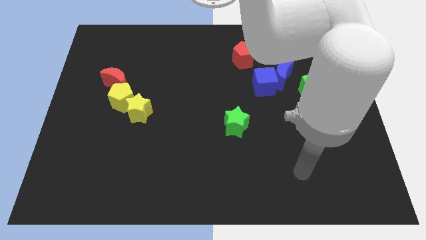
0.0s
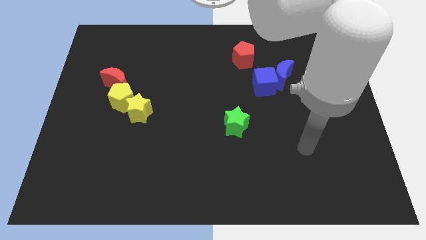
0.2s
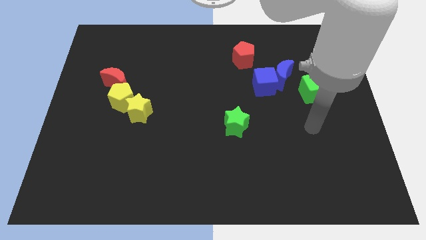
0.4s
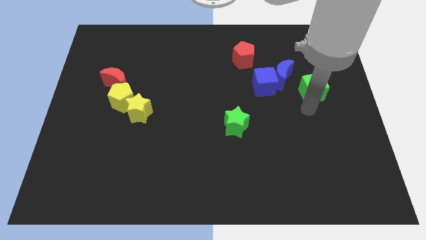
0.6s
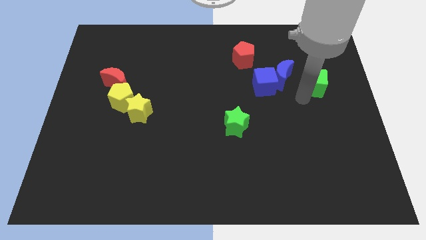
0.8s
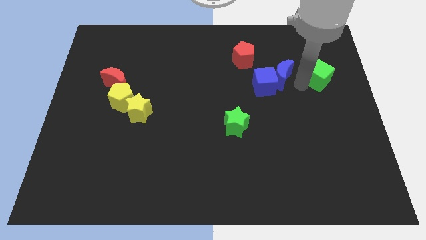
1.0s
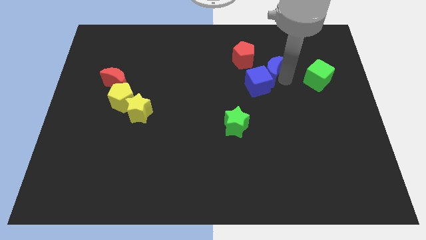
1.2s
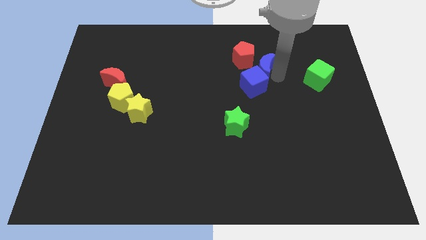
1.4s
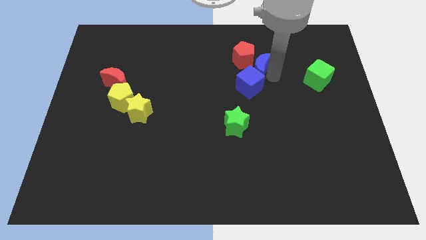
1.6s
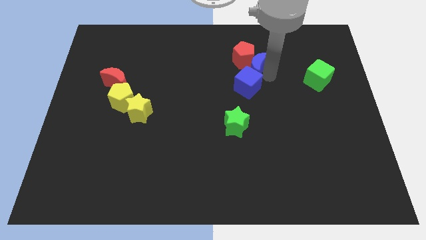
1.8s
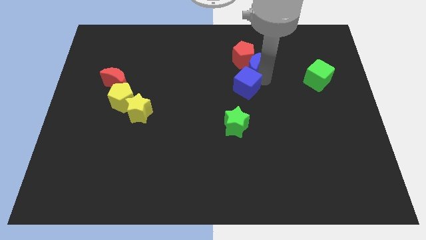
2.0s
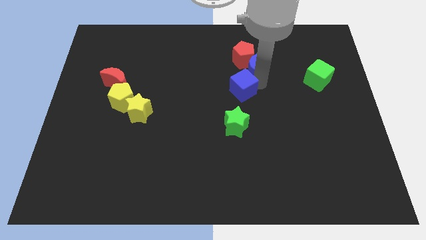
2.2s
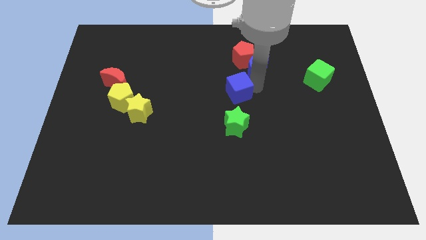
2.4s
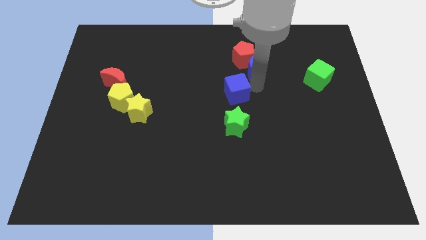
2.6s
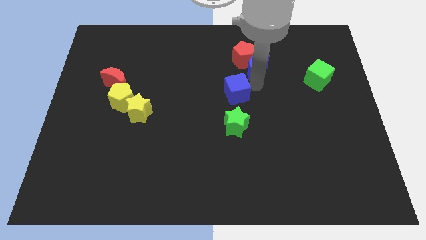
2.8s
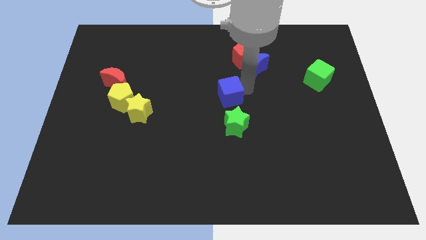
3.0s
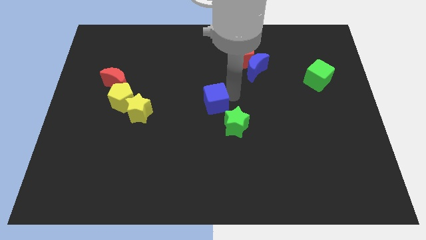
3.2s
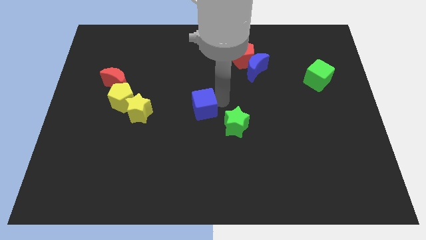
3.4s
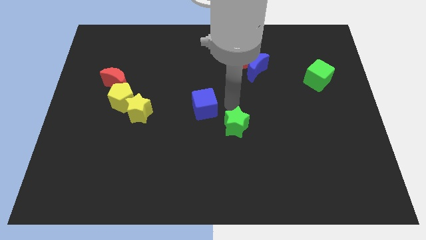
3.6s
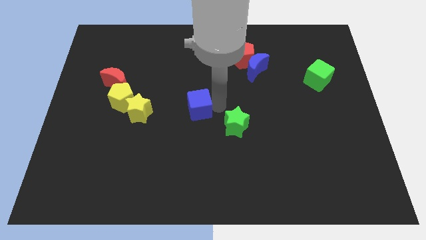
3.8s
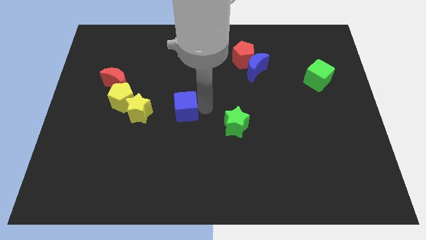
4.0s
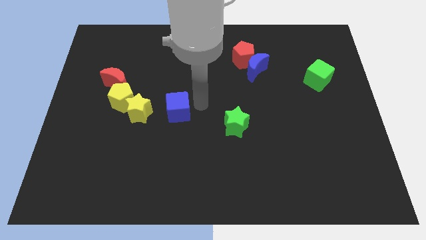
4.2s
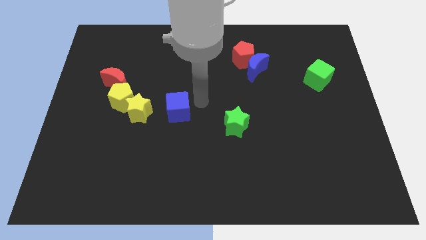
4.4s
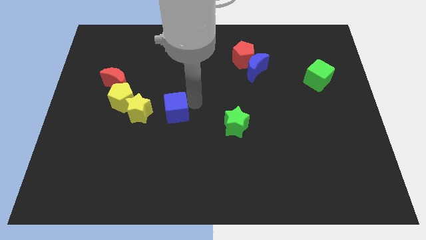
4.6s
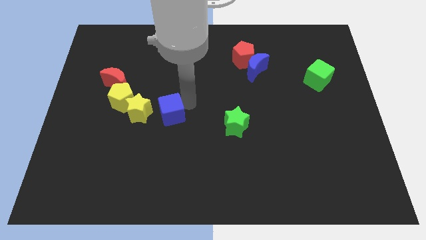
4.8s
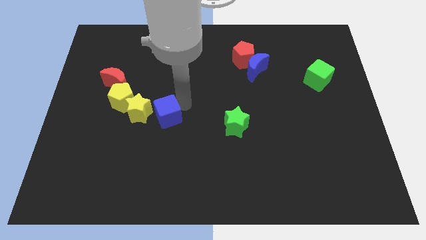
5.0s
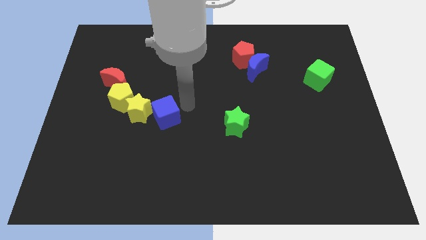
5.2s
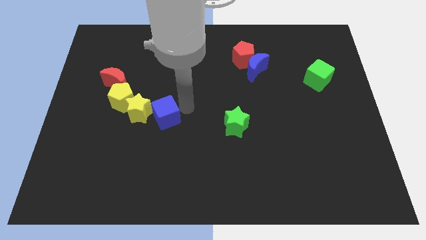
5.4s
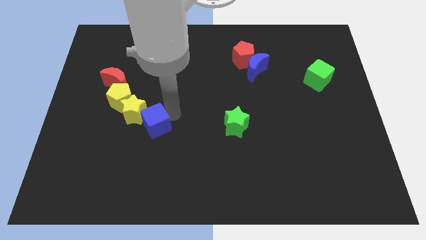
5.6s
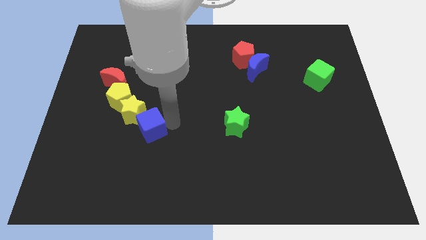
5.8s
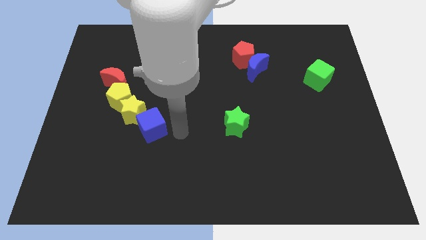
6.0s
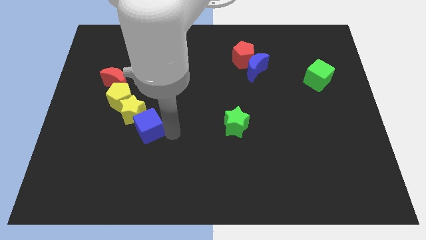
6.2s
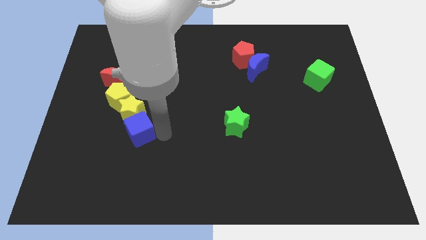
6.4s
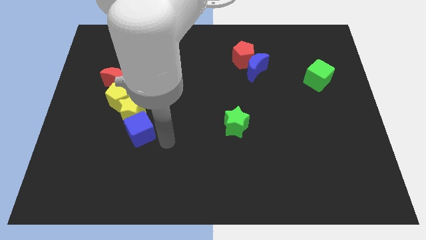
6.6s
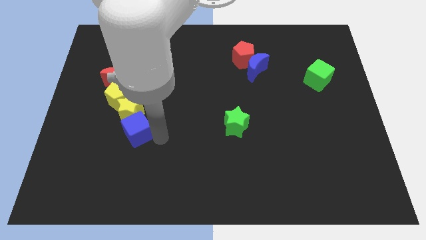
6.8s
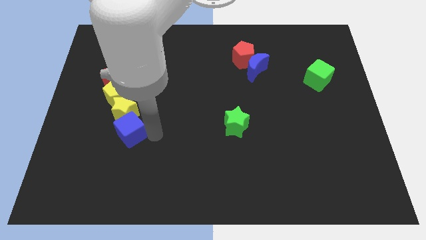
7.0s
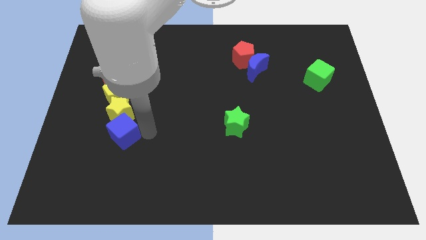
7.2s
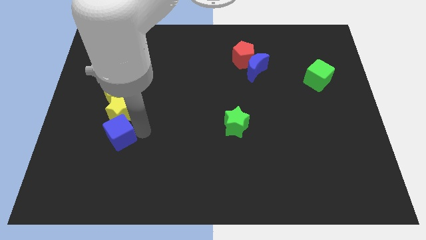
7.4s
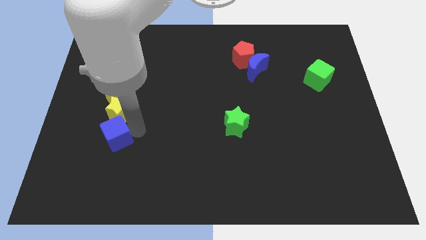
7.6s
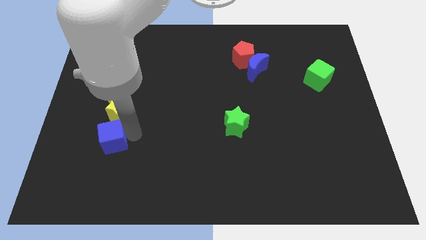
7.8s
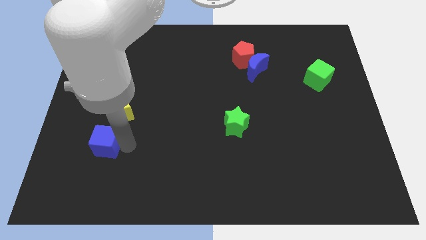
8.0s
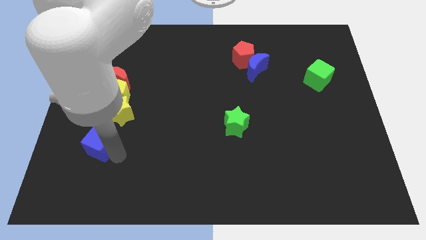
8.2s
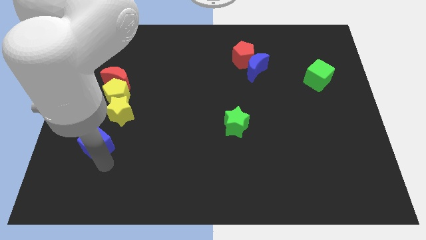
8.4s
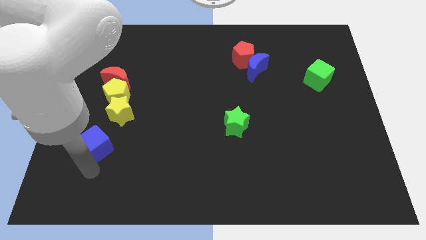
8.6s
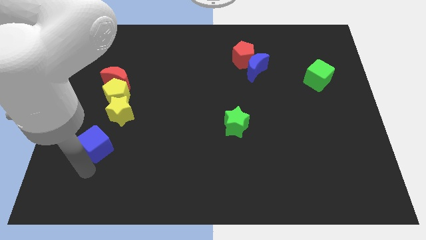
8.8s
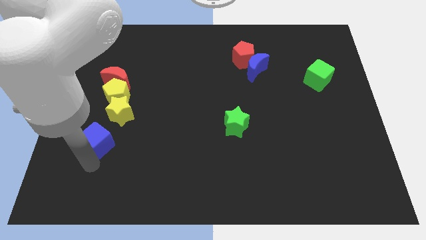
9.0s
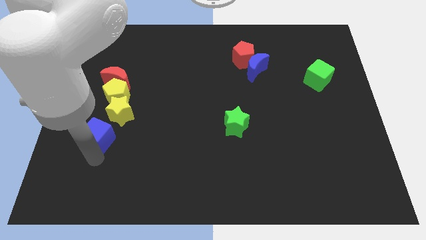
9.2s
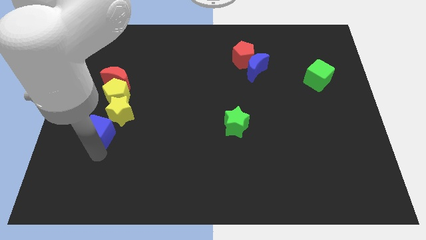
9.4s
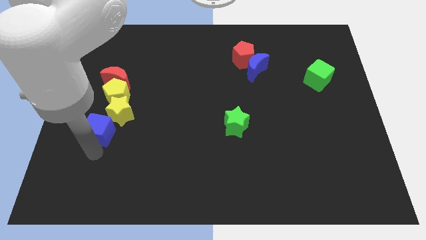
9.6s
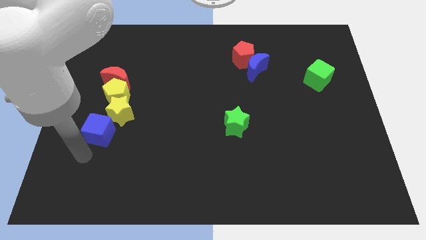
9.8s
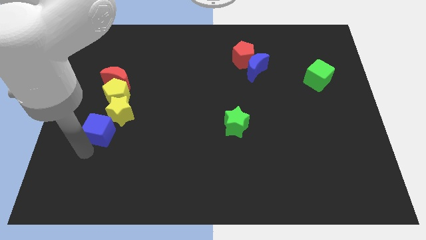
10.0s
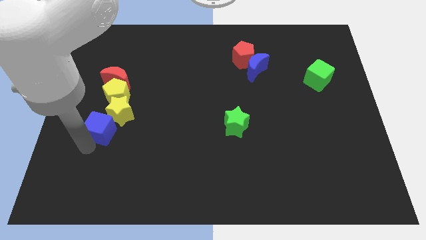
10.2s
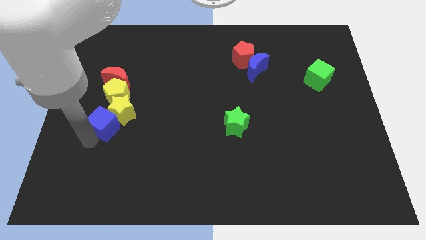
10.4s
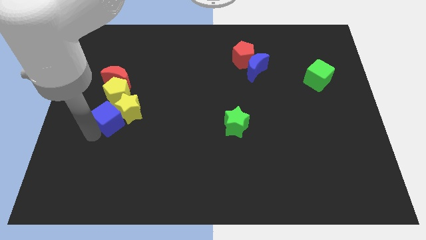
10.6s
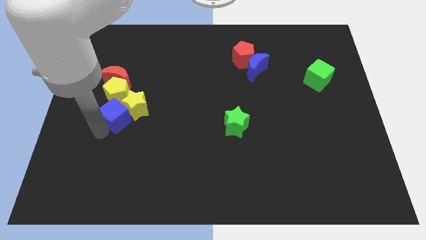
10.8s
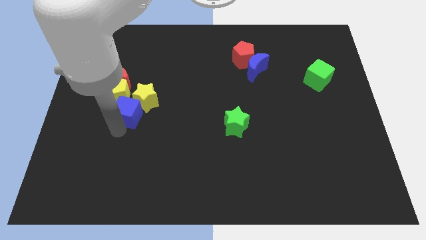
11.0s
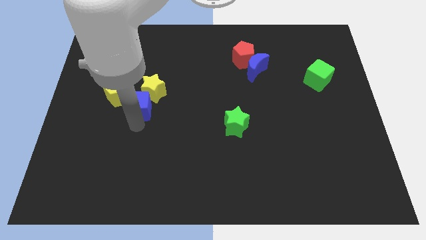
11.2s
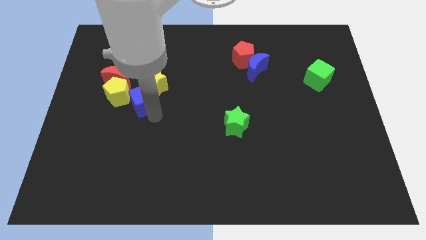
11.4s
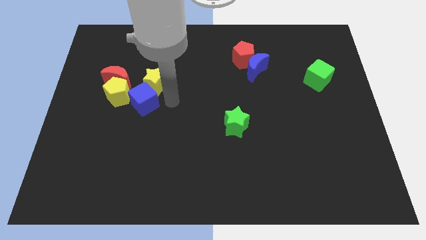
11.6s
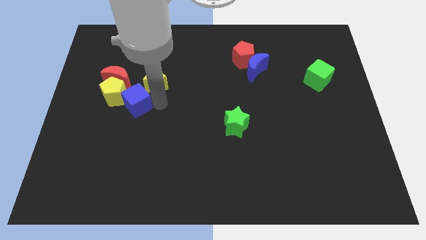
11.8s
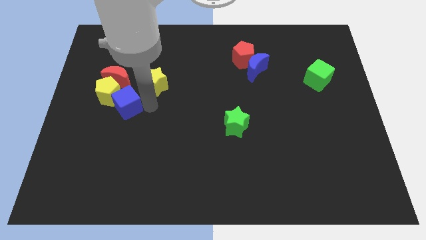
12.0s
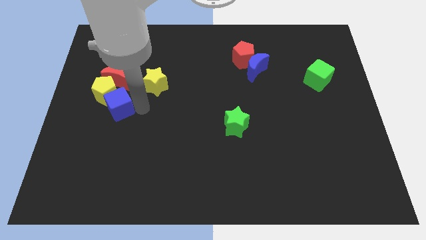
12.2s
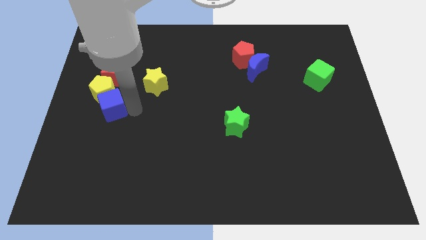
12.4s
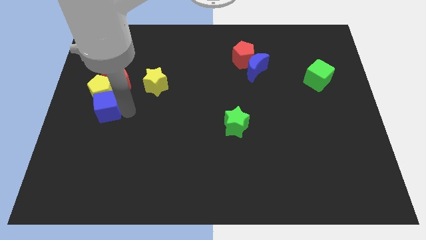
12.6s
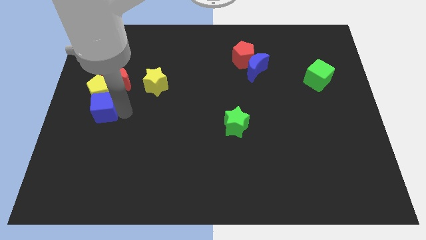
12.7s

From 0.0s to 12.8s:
push the blue cube to the left side of the board
